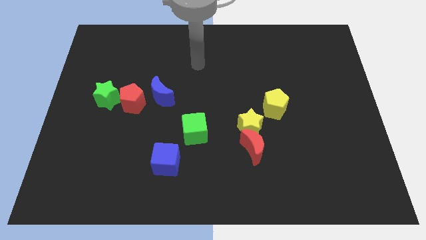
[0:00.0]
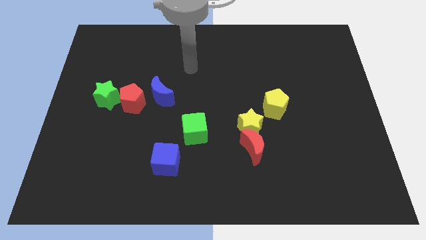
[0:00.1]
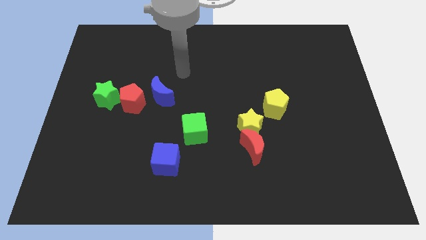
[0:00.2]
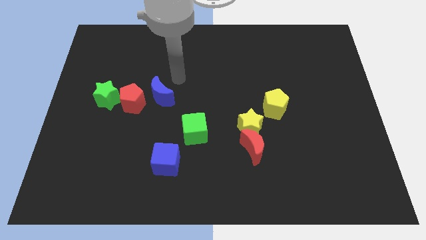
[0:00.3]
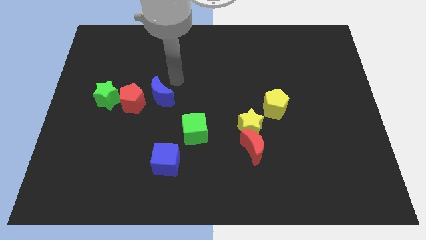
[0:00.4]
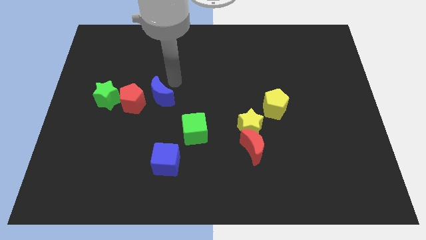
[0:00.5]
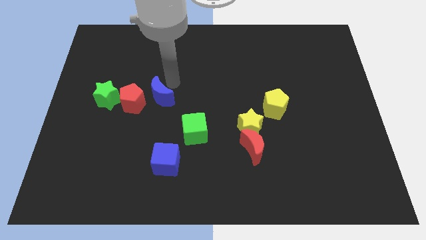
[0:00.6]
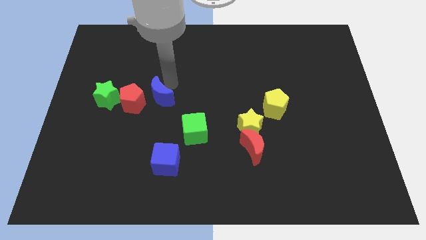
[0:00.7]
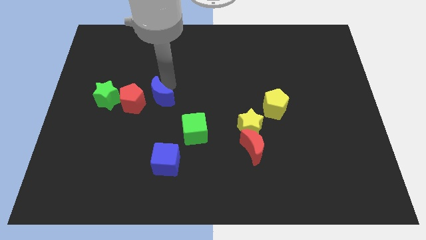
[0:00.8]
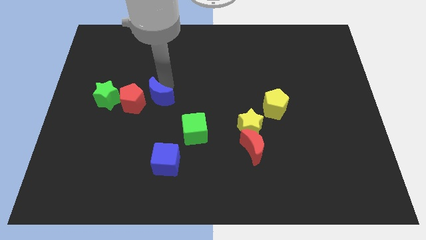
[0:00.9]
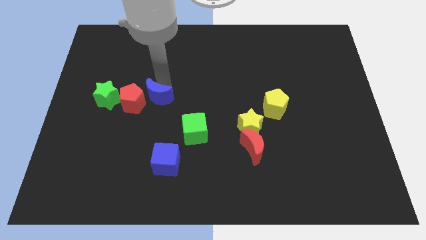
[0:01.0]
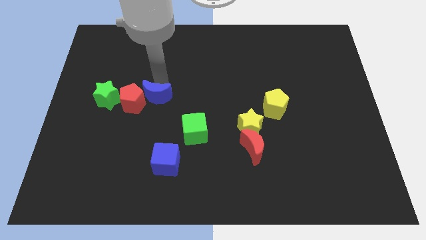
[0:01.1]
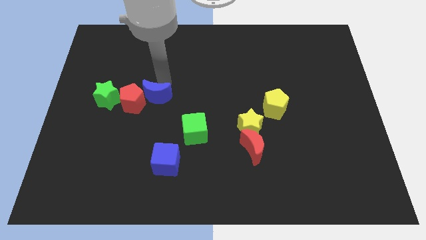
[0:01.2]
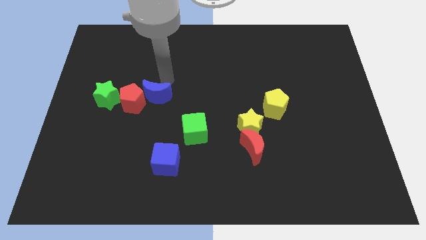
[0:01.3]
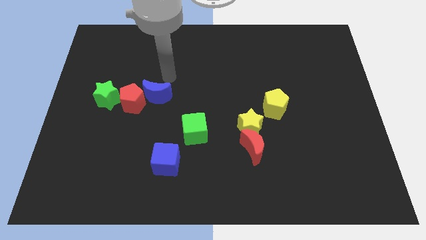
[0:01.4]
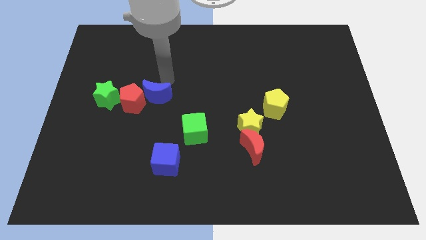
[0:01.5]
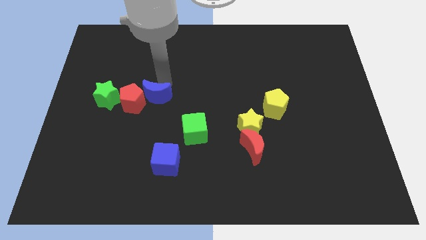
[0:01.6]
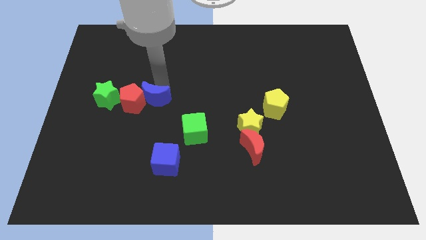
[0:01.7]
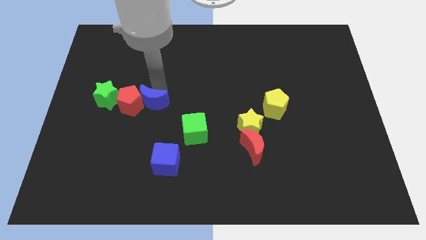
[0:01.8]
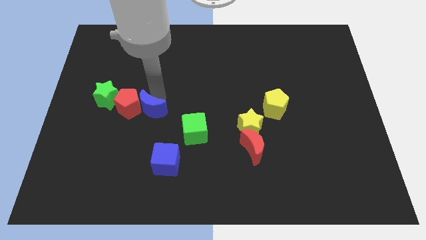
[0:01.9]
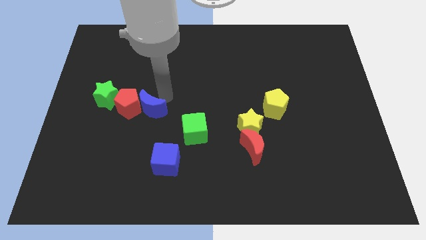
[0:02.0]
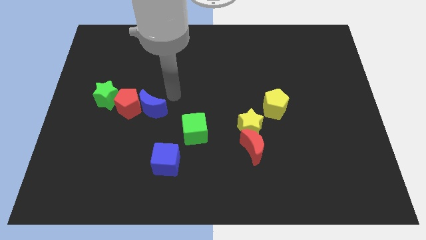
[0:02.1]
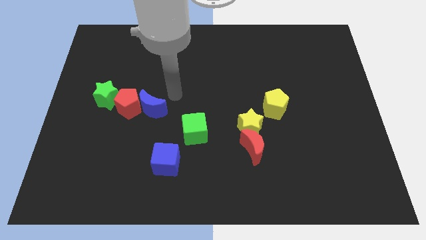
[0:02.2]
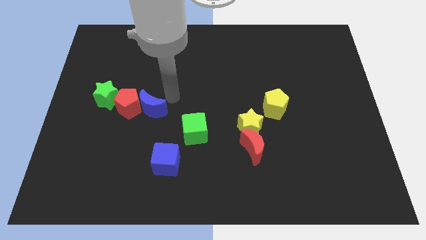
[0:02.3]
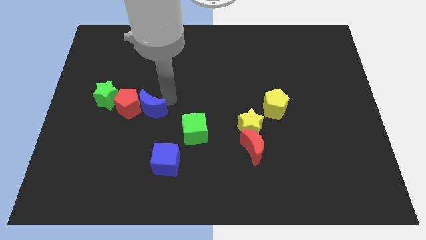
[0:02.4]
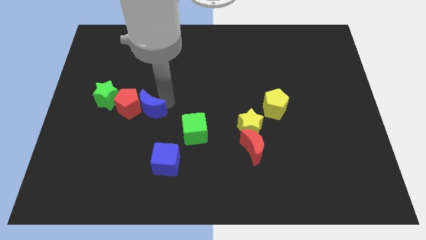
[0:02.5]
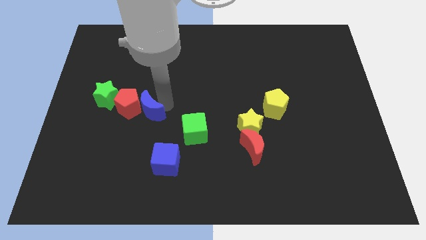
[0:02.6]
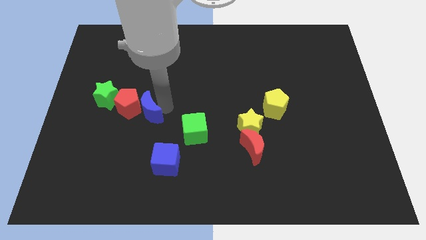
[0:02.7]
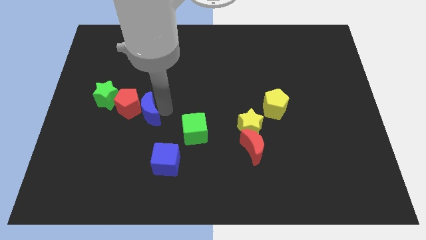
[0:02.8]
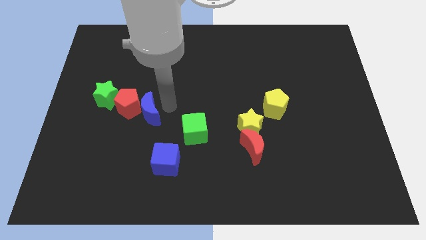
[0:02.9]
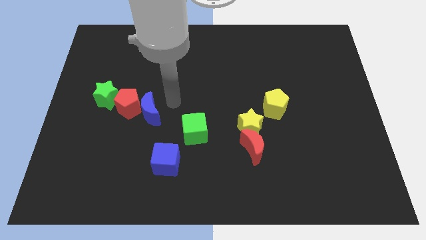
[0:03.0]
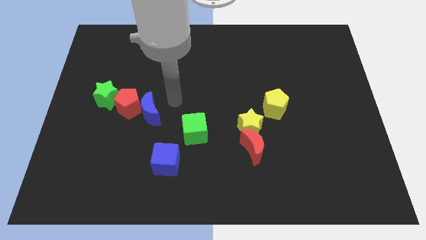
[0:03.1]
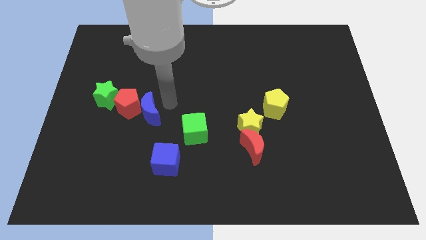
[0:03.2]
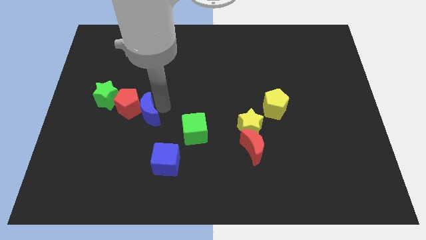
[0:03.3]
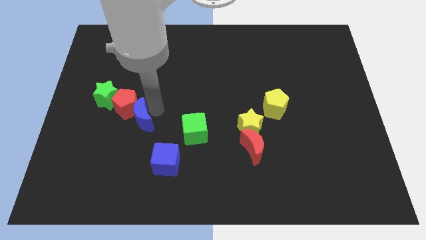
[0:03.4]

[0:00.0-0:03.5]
move the blue moon downwards and to the left diagonally a bit

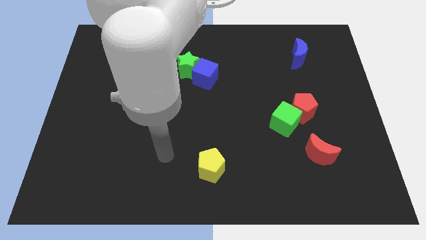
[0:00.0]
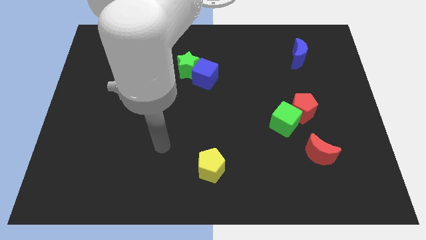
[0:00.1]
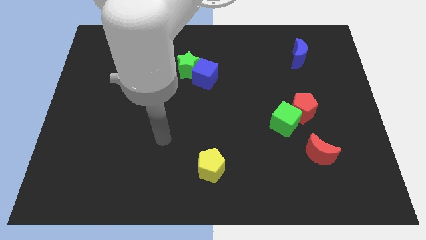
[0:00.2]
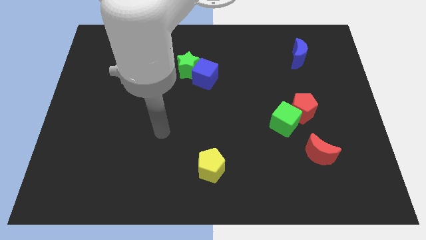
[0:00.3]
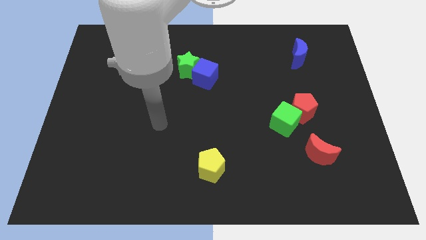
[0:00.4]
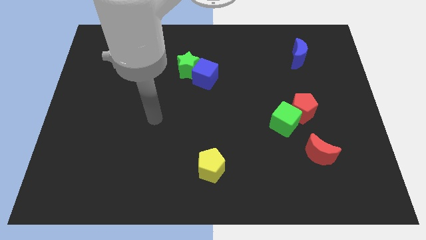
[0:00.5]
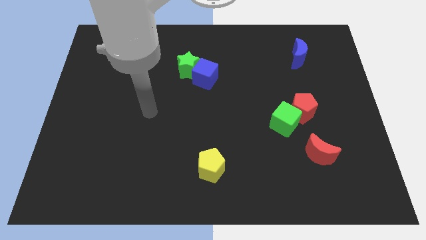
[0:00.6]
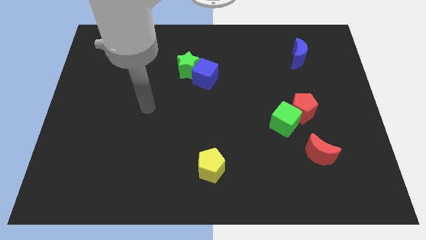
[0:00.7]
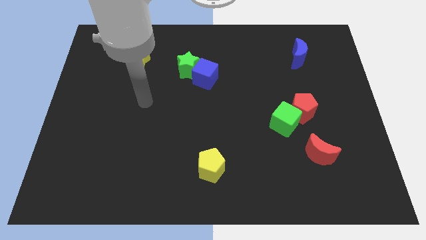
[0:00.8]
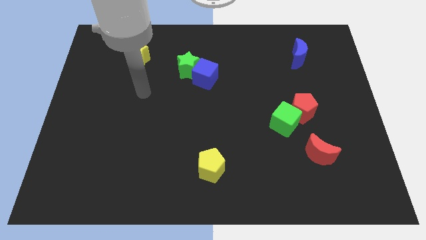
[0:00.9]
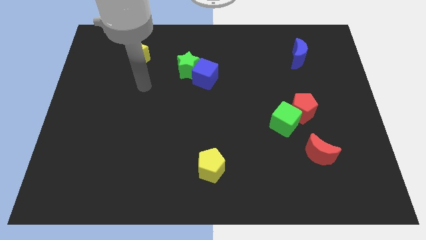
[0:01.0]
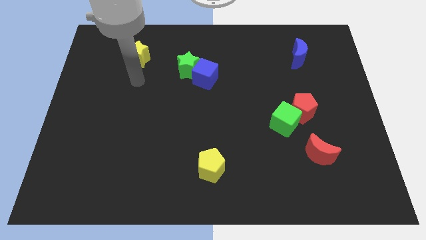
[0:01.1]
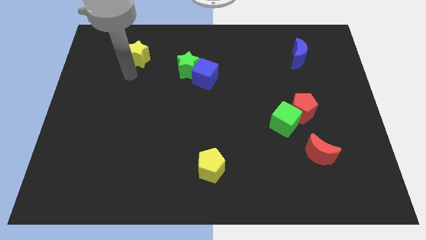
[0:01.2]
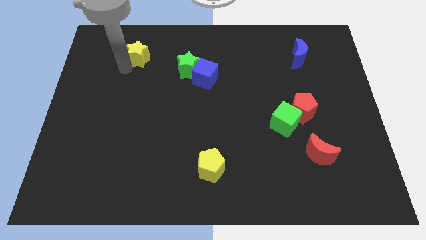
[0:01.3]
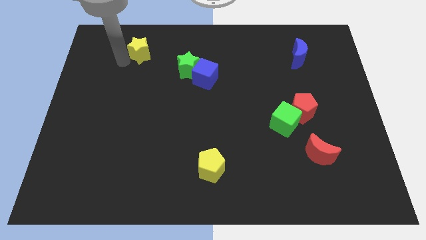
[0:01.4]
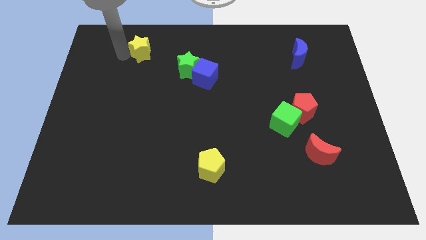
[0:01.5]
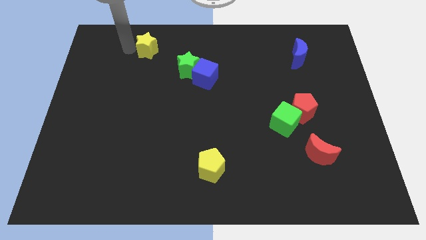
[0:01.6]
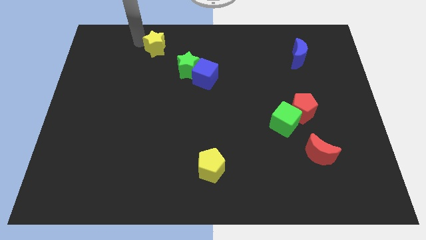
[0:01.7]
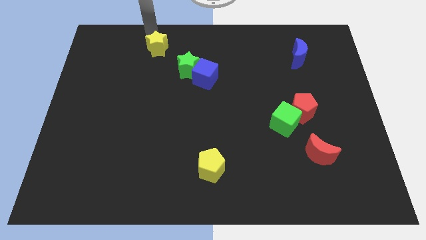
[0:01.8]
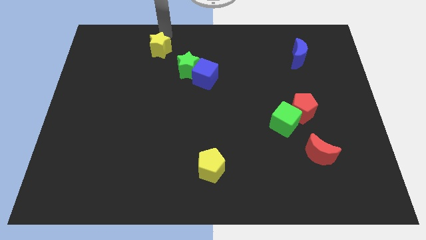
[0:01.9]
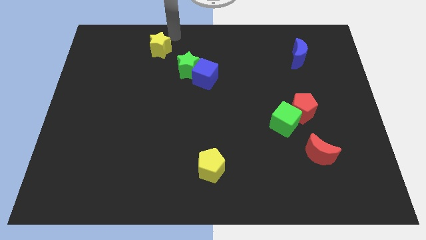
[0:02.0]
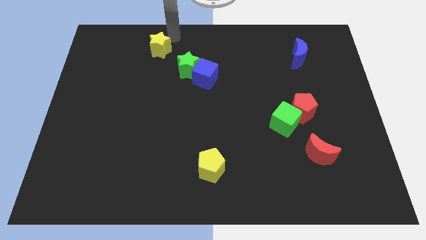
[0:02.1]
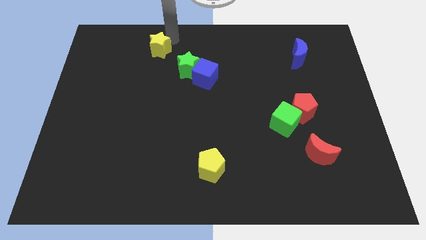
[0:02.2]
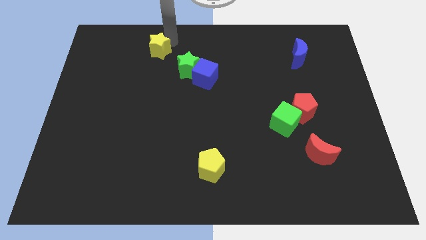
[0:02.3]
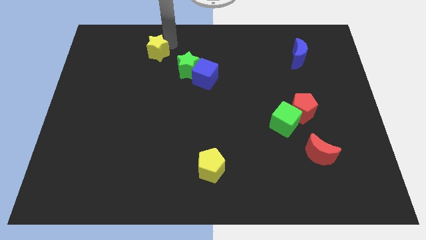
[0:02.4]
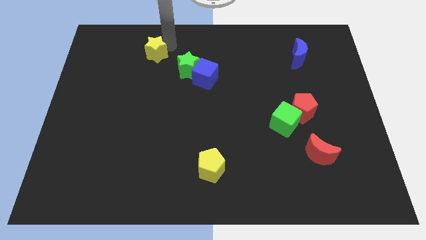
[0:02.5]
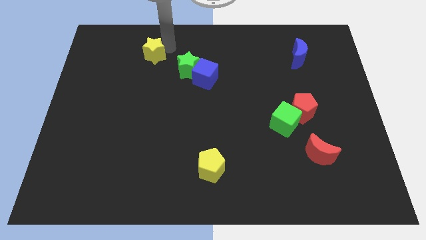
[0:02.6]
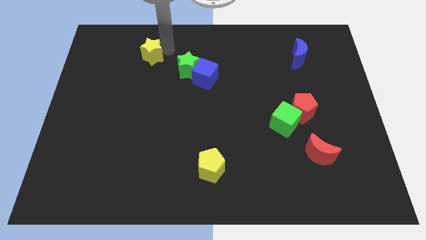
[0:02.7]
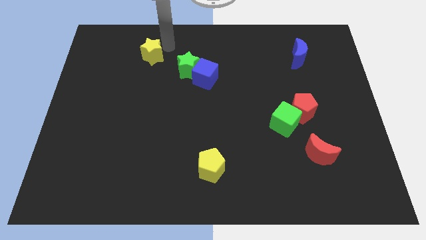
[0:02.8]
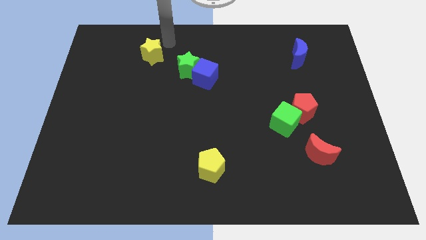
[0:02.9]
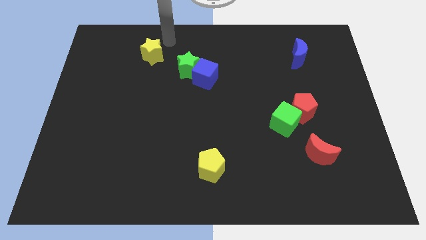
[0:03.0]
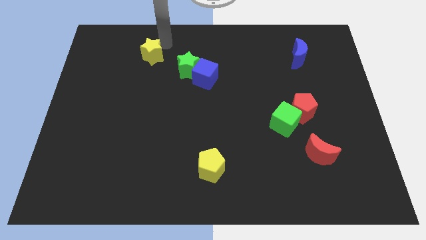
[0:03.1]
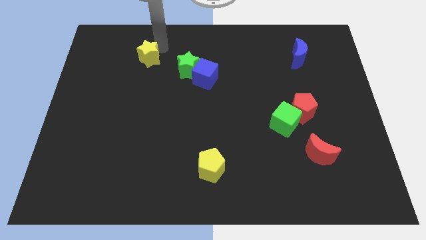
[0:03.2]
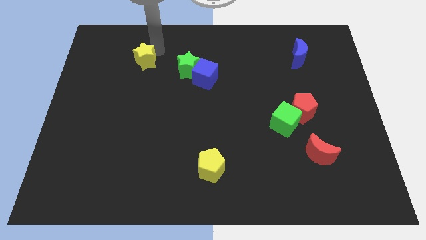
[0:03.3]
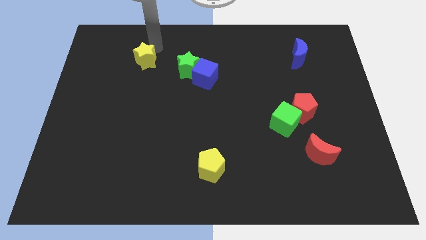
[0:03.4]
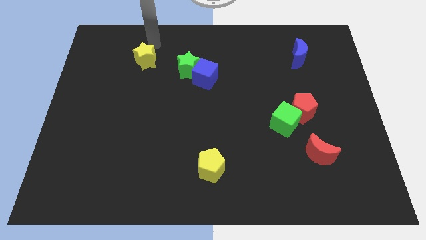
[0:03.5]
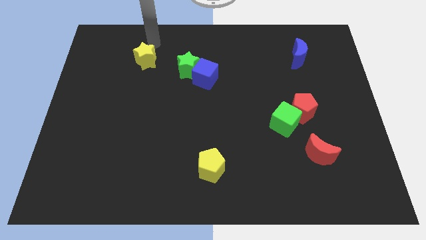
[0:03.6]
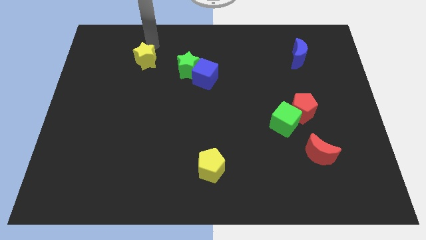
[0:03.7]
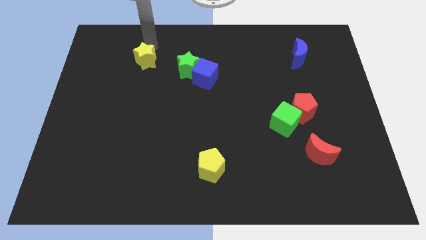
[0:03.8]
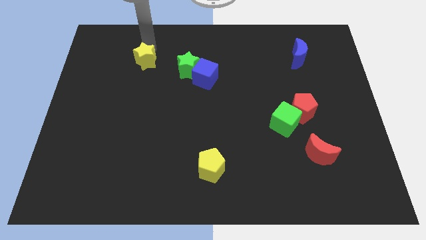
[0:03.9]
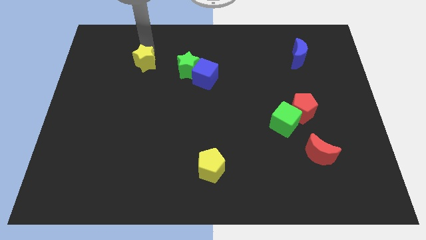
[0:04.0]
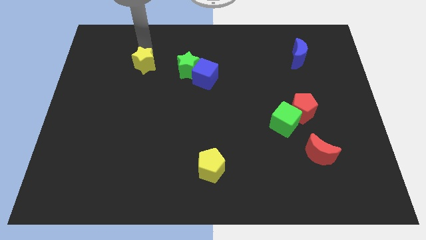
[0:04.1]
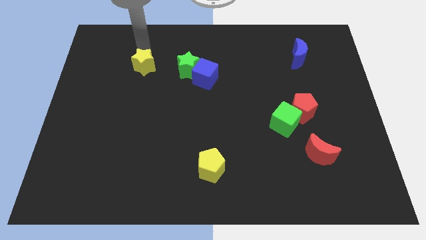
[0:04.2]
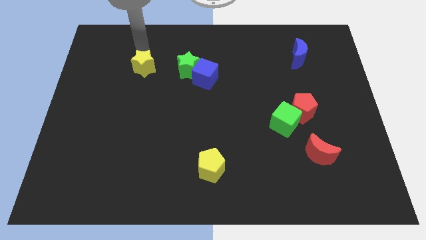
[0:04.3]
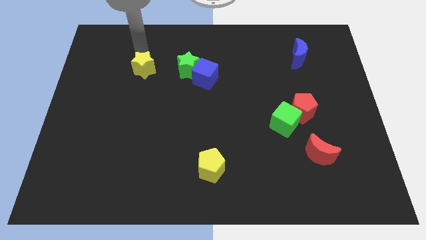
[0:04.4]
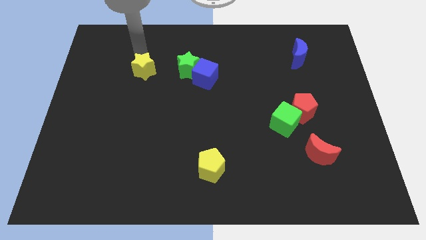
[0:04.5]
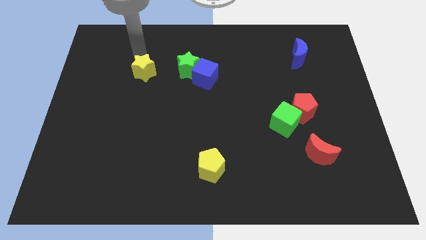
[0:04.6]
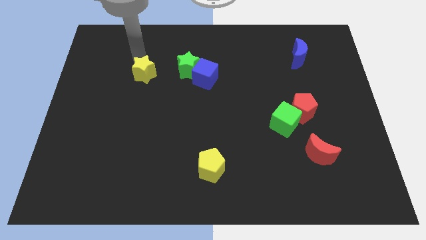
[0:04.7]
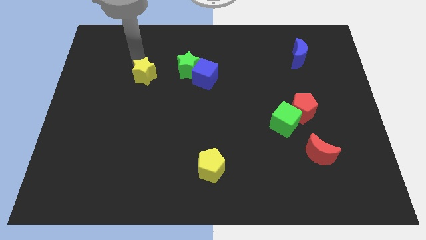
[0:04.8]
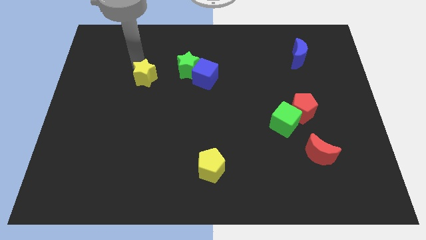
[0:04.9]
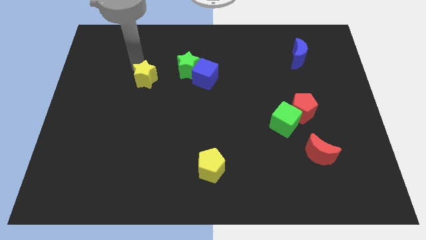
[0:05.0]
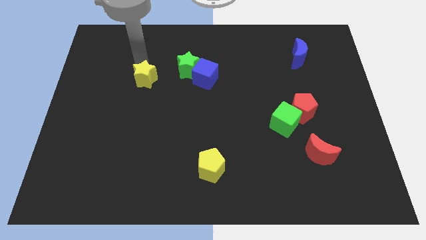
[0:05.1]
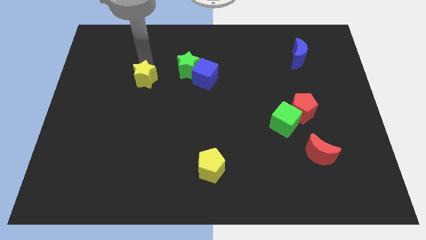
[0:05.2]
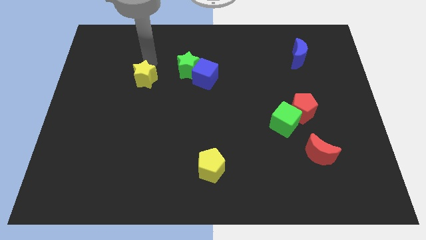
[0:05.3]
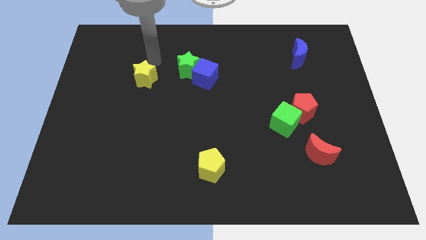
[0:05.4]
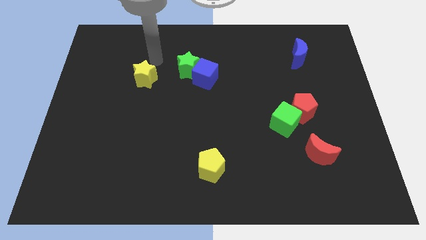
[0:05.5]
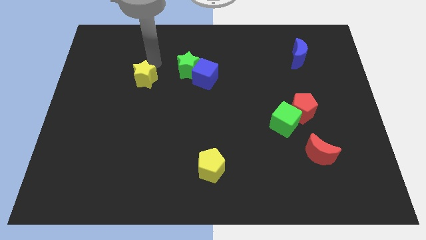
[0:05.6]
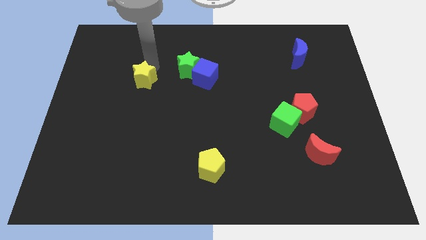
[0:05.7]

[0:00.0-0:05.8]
push the yellow star a little bit downwards
